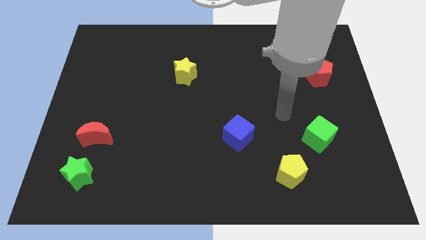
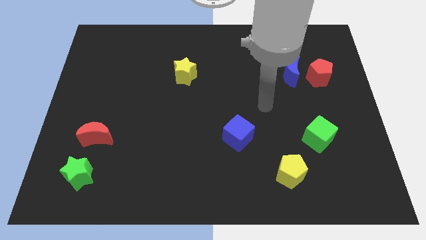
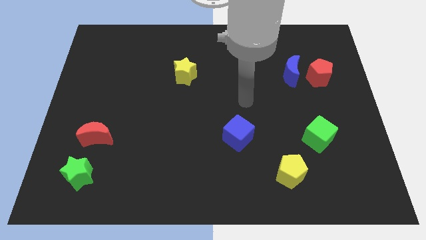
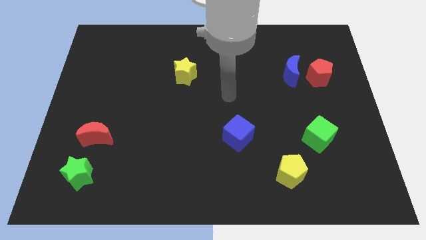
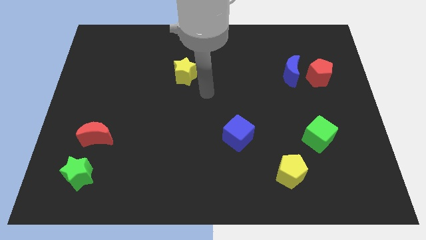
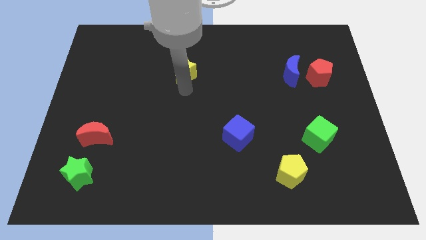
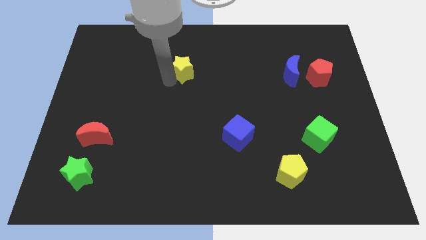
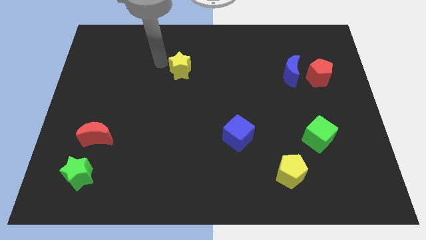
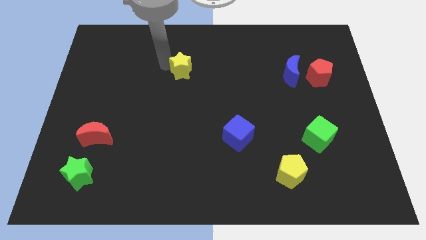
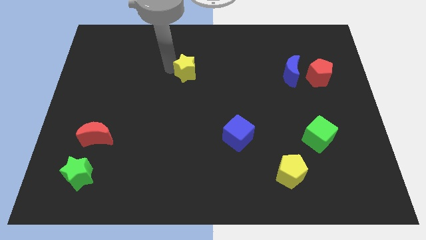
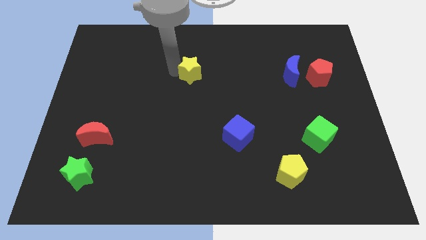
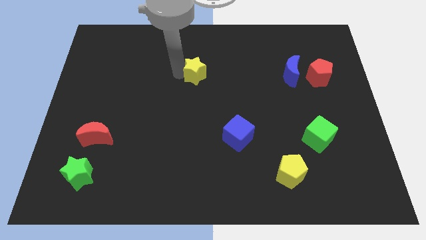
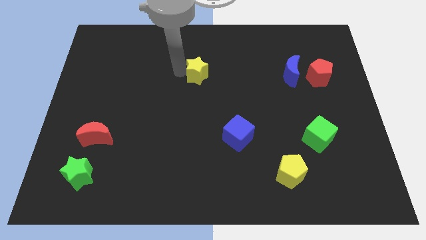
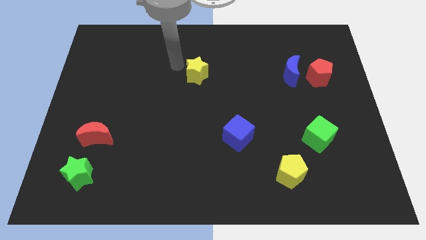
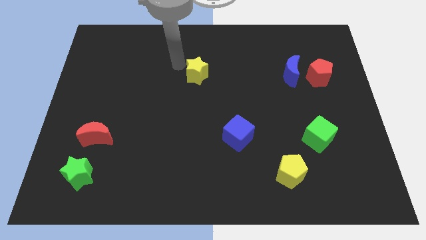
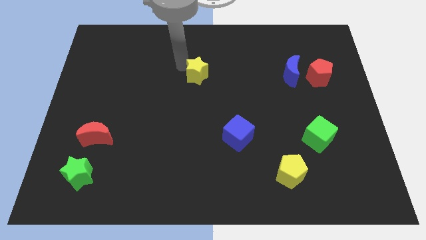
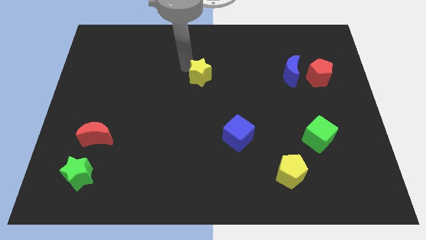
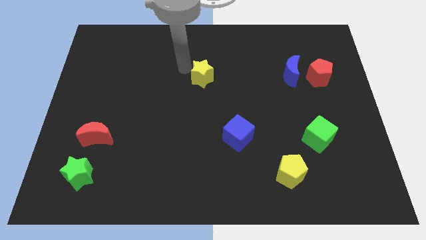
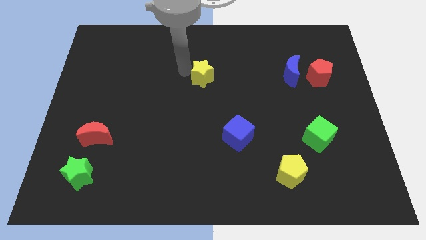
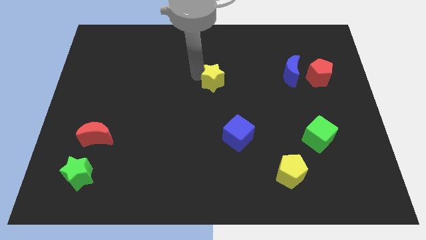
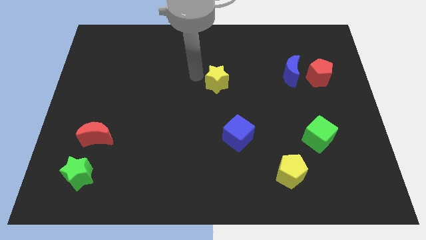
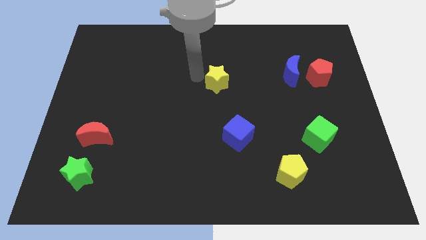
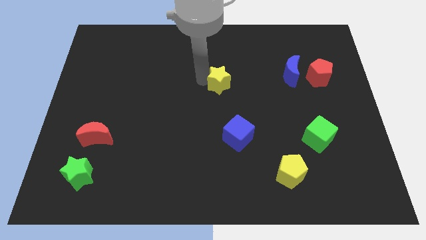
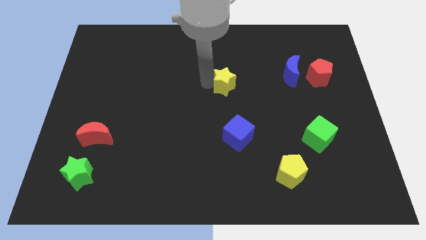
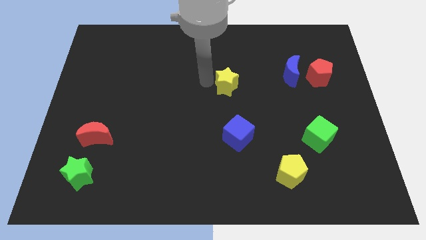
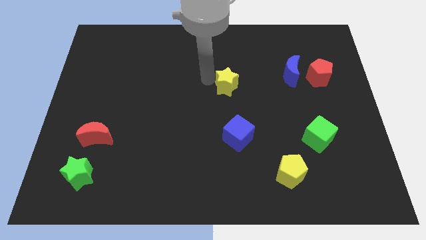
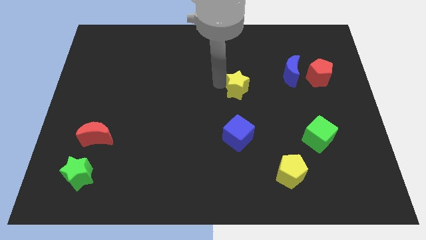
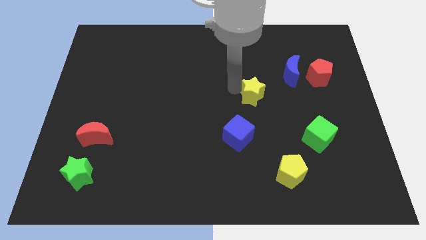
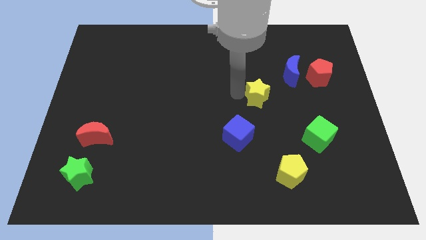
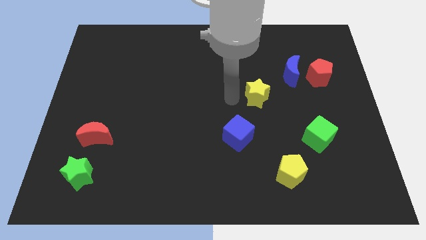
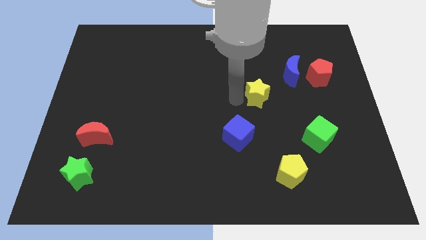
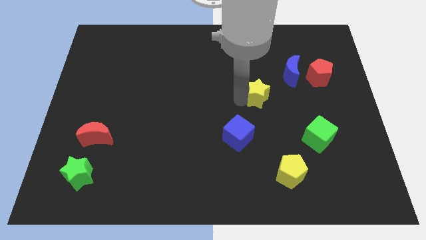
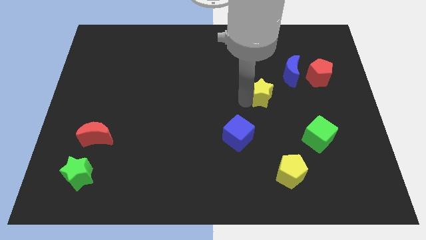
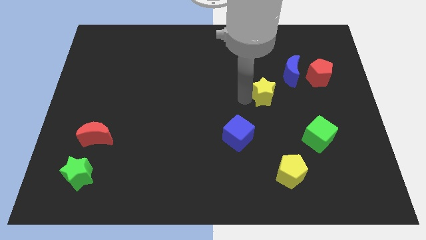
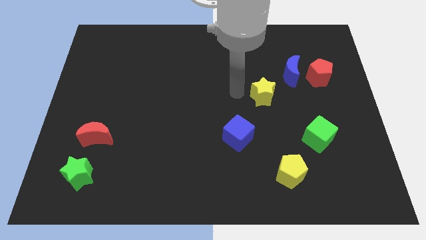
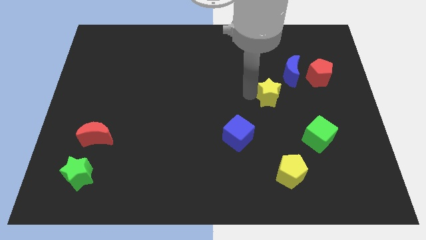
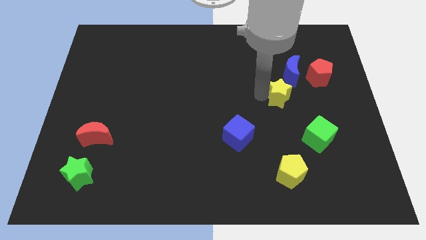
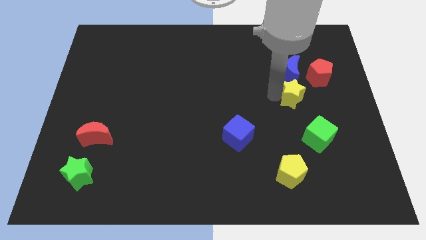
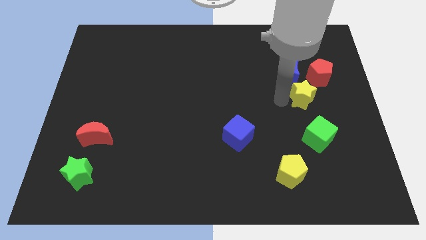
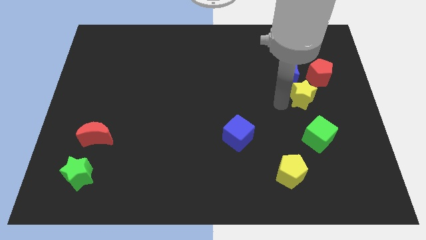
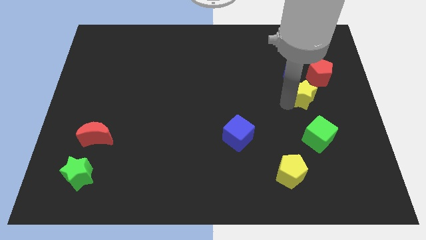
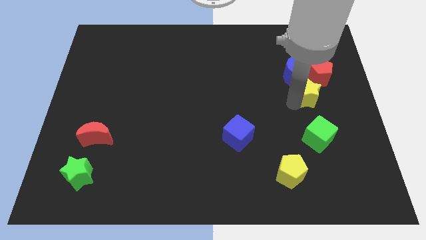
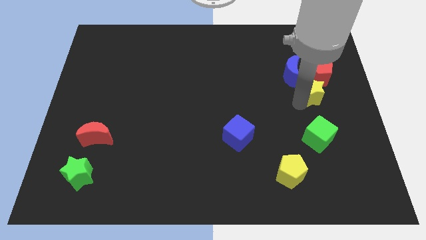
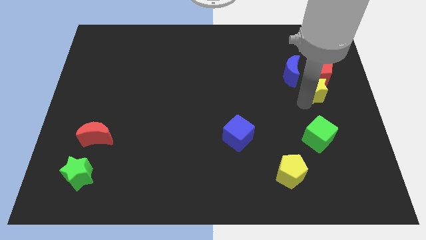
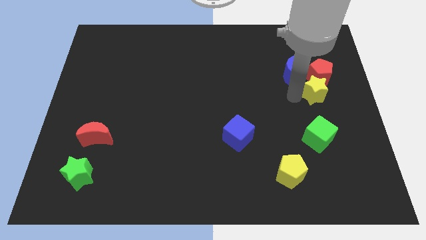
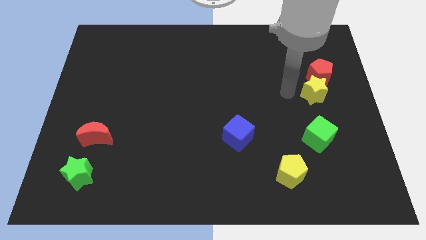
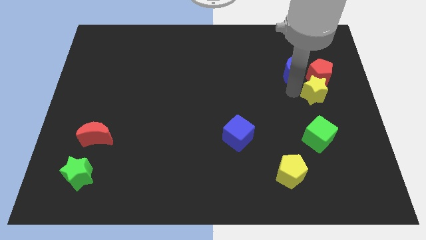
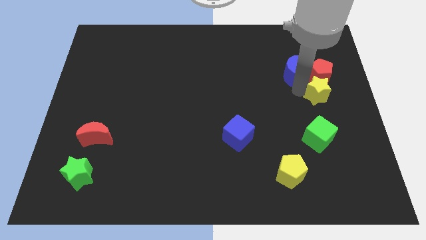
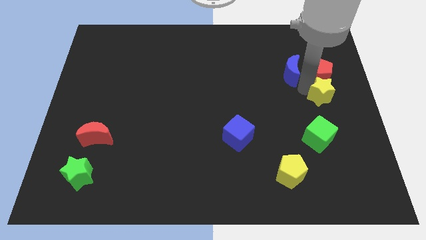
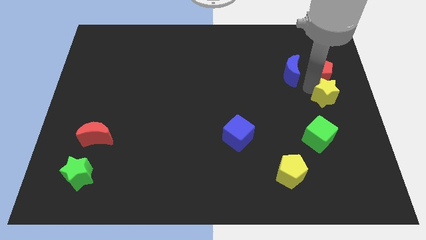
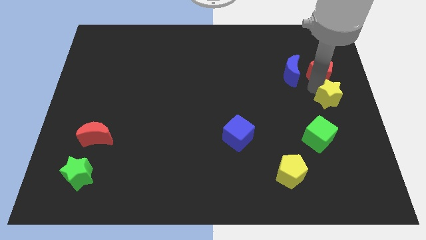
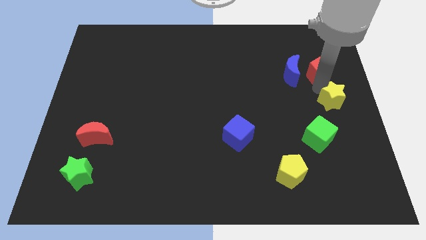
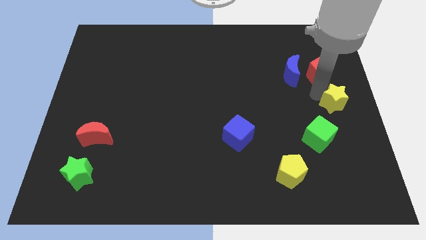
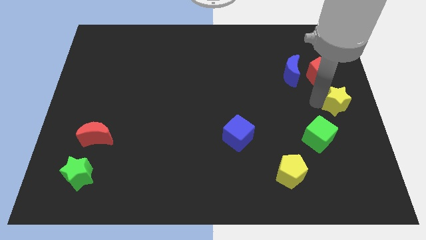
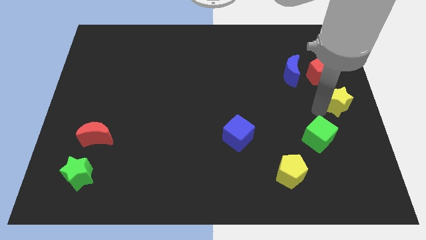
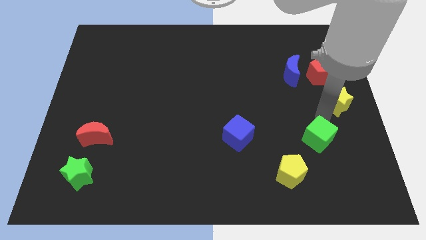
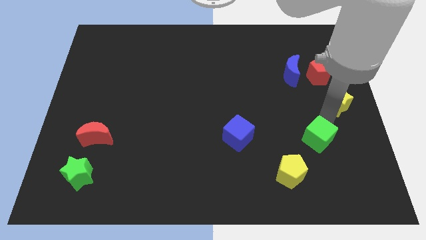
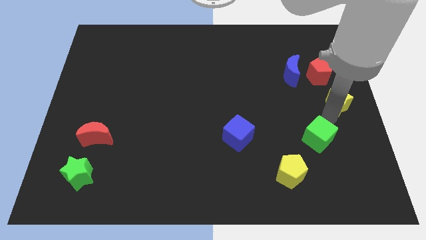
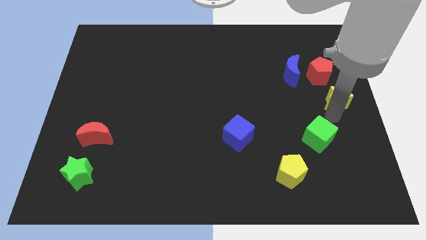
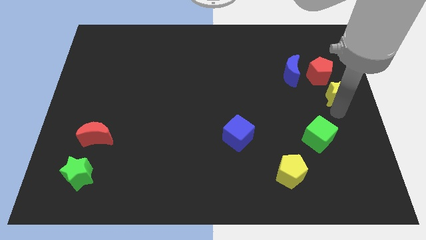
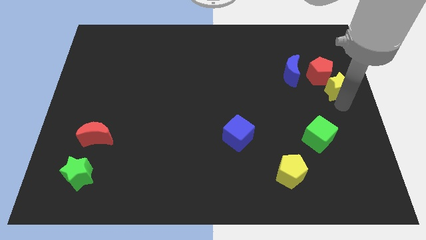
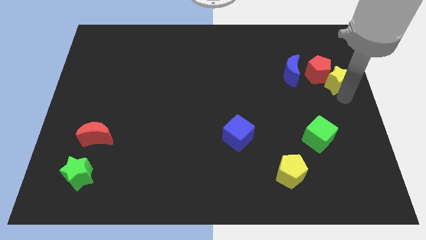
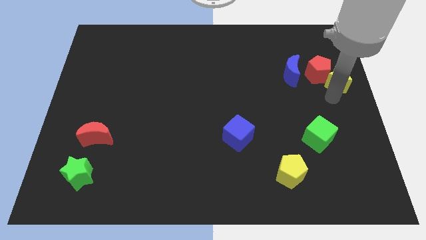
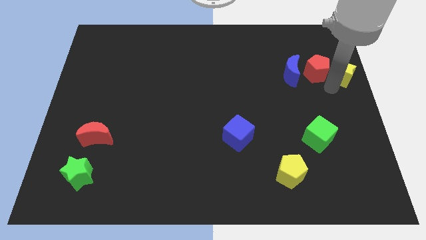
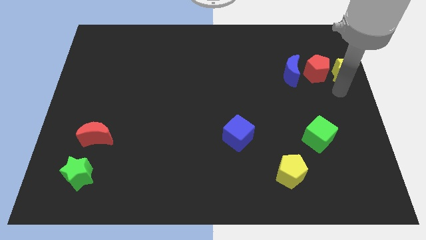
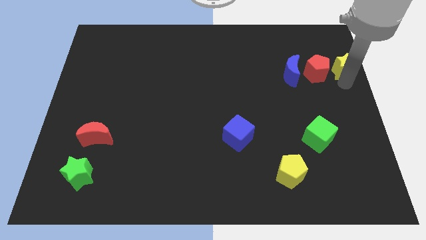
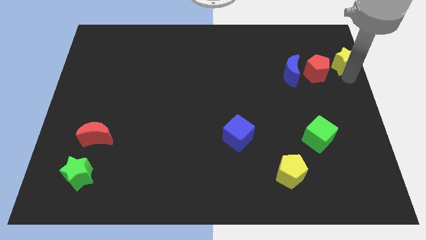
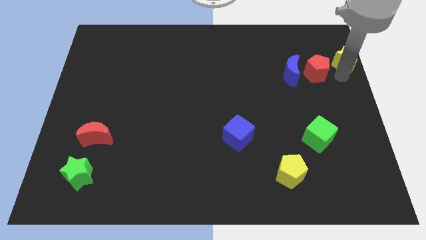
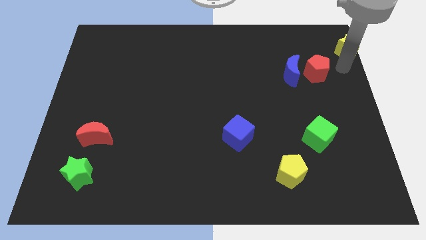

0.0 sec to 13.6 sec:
push the yellow star to the top right of the board
